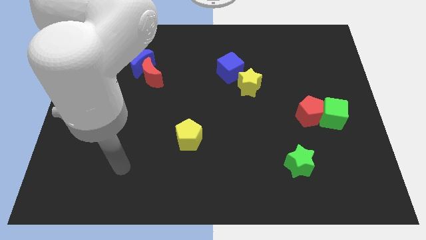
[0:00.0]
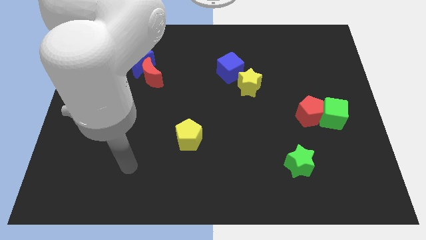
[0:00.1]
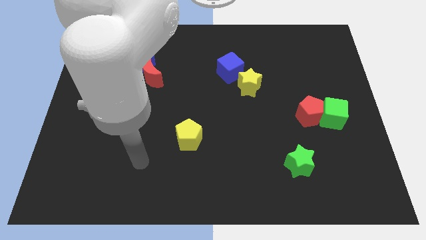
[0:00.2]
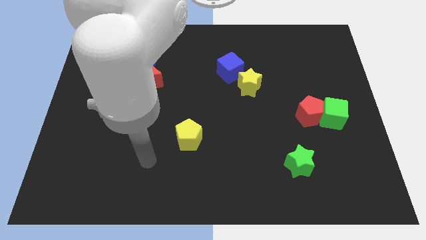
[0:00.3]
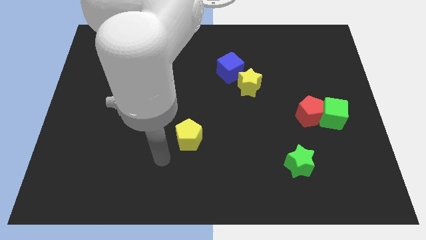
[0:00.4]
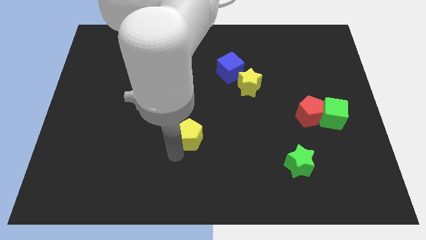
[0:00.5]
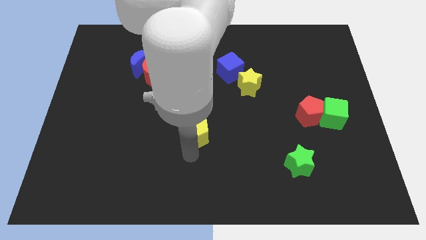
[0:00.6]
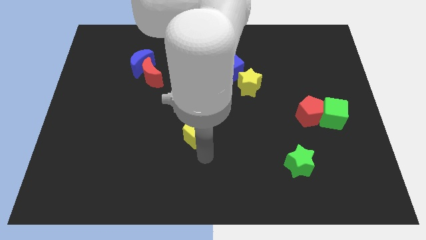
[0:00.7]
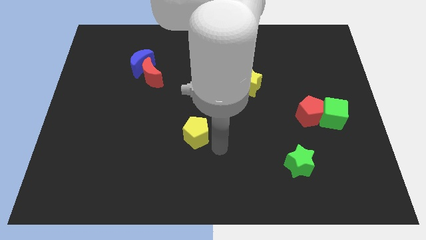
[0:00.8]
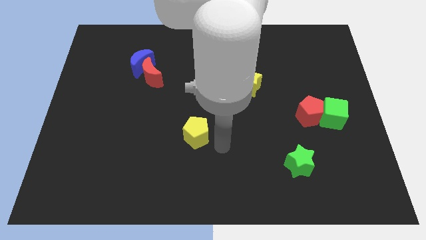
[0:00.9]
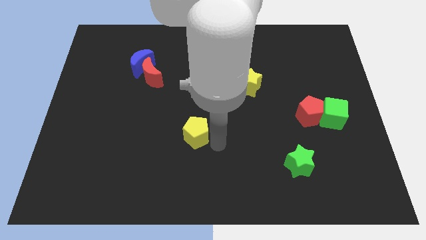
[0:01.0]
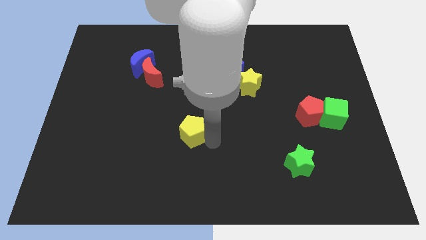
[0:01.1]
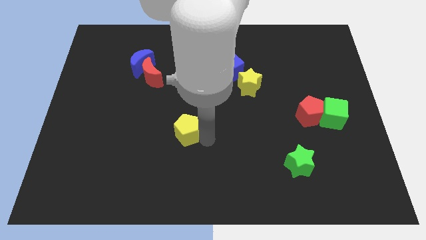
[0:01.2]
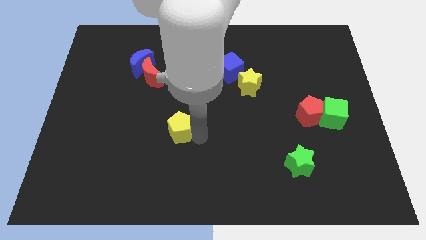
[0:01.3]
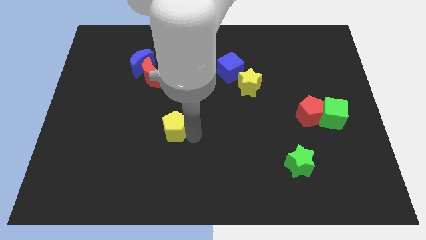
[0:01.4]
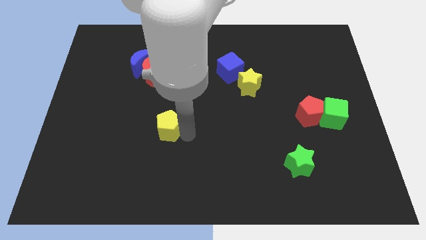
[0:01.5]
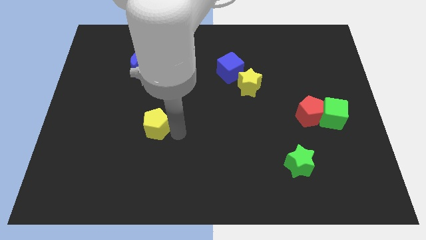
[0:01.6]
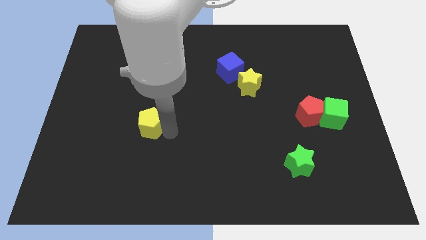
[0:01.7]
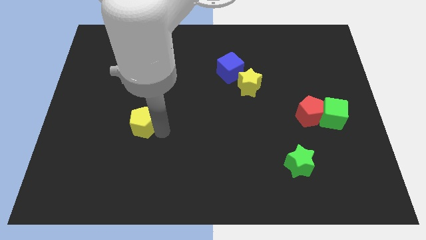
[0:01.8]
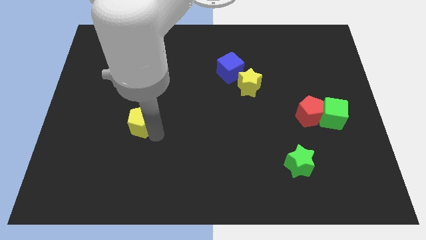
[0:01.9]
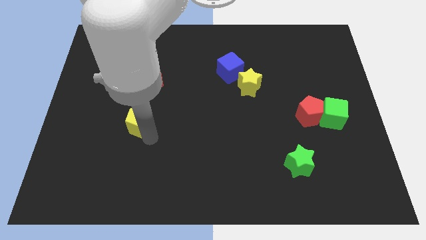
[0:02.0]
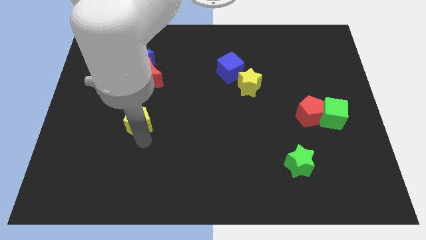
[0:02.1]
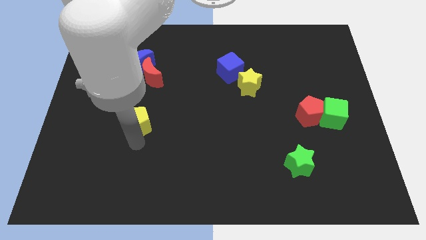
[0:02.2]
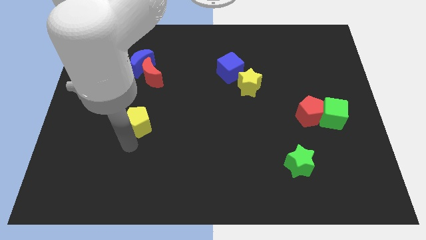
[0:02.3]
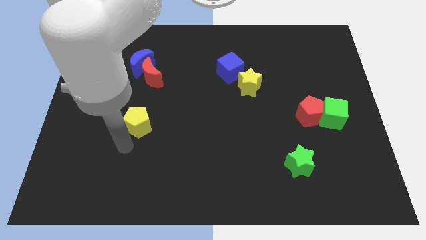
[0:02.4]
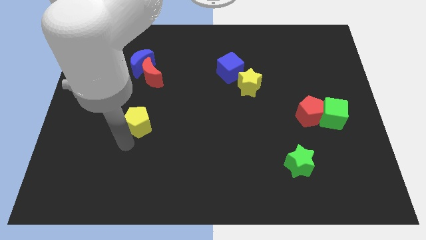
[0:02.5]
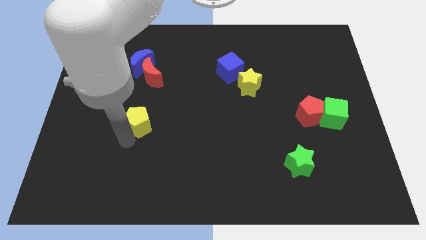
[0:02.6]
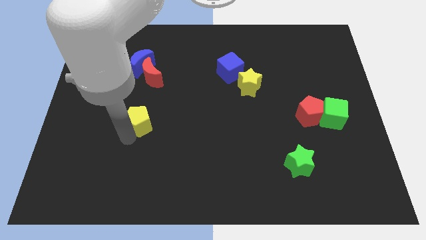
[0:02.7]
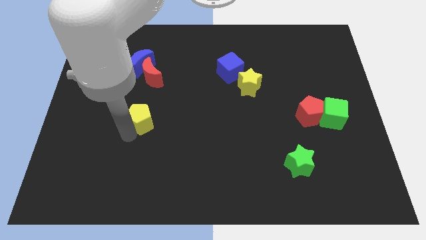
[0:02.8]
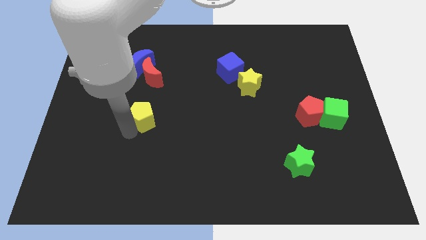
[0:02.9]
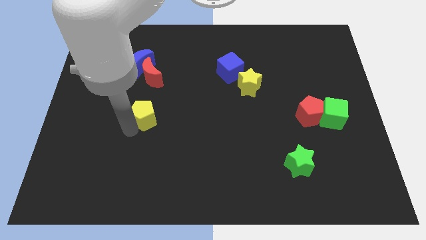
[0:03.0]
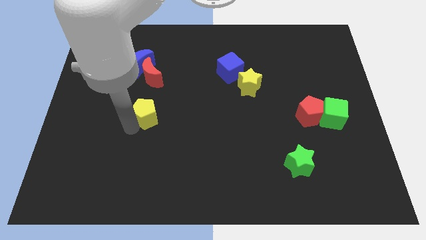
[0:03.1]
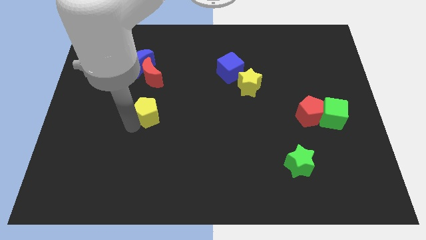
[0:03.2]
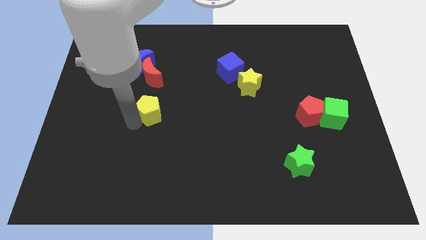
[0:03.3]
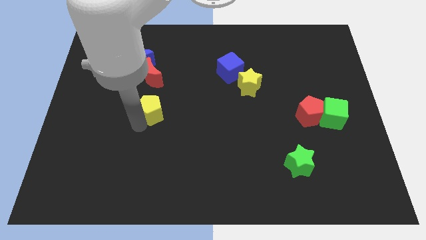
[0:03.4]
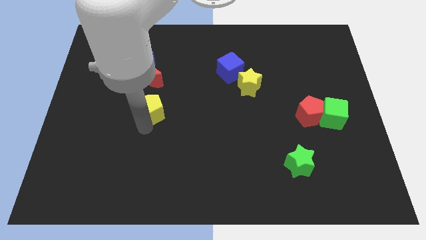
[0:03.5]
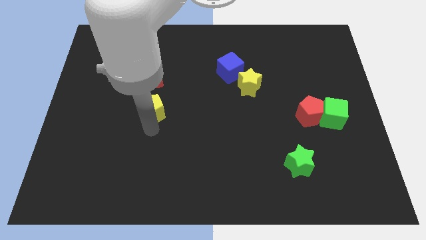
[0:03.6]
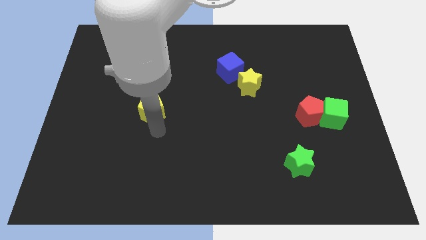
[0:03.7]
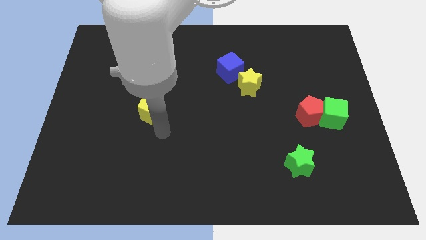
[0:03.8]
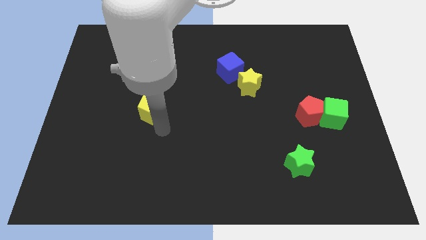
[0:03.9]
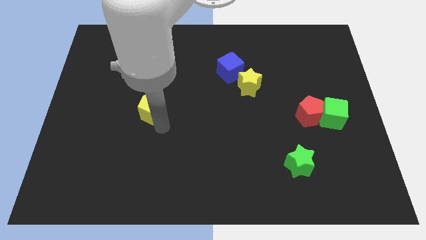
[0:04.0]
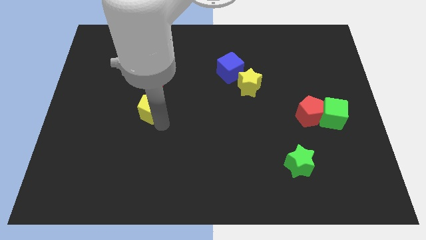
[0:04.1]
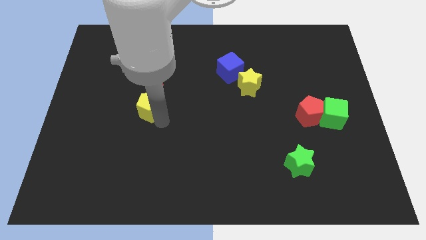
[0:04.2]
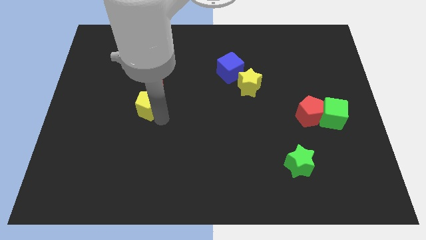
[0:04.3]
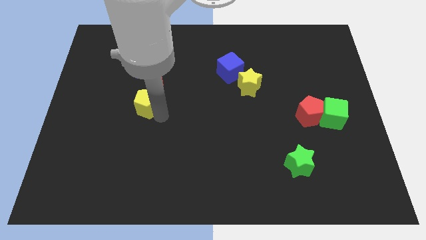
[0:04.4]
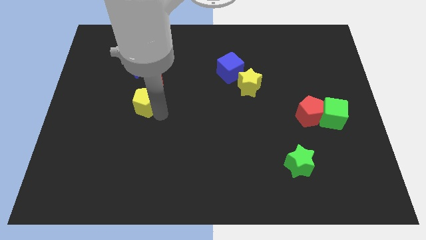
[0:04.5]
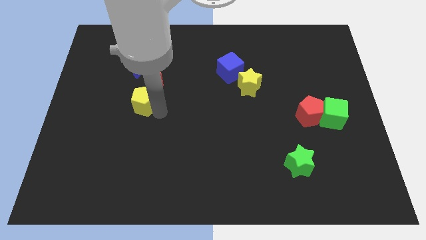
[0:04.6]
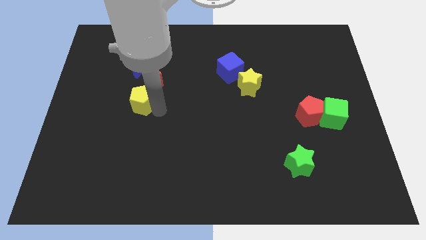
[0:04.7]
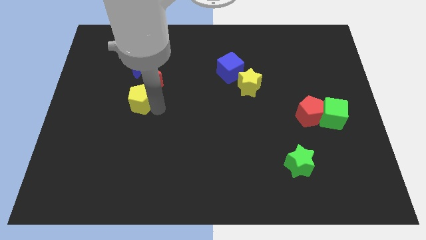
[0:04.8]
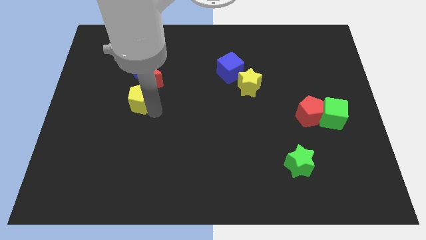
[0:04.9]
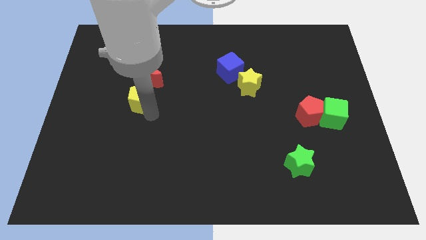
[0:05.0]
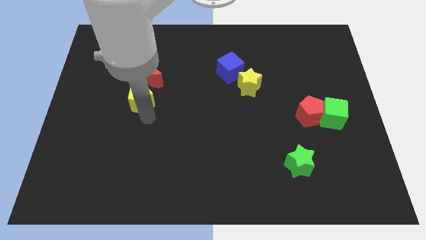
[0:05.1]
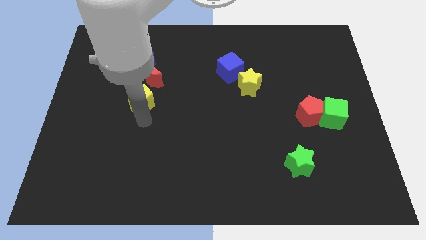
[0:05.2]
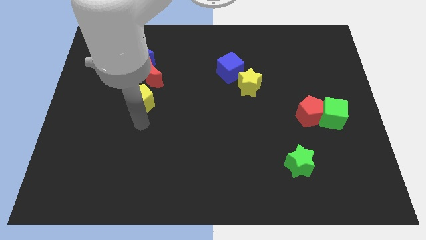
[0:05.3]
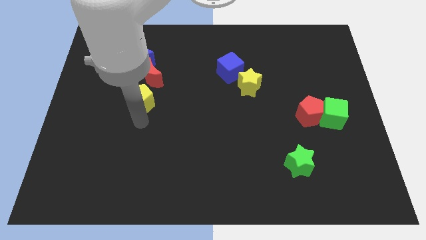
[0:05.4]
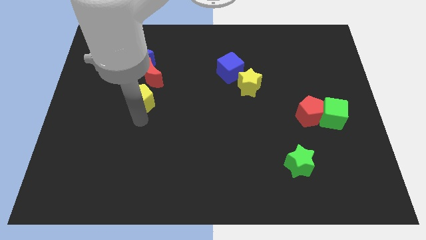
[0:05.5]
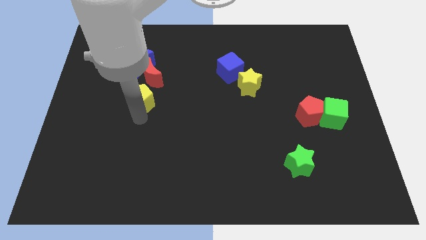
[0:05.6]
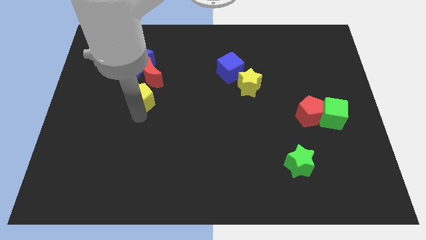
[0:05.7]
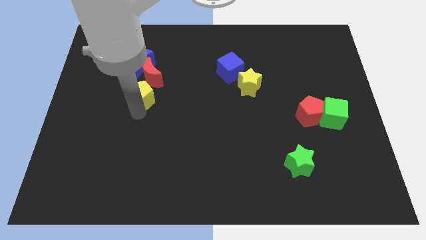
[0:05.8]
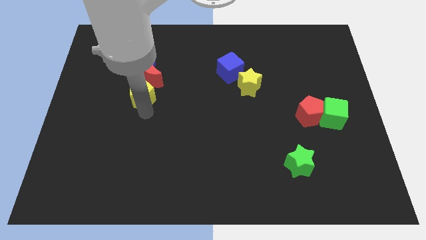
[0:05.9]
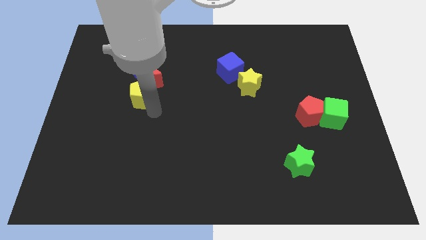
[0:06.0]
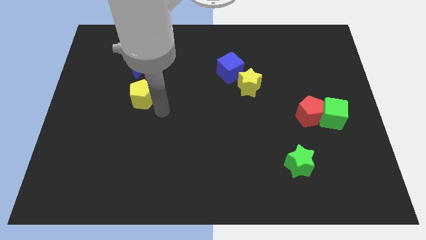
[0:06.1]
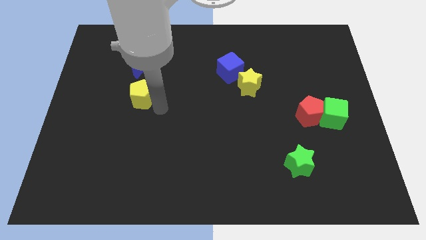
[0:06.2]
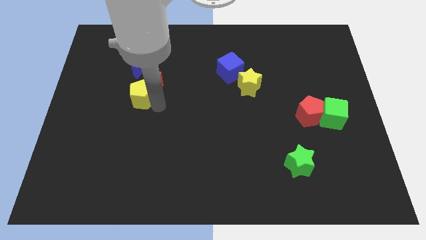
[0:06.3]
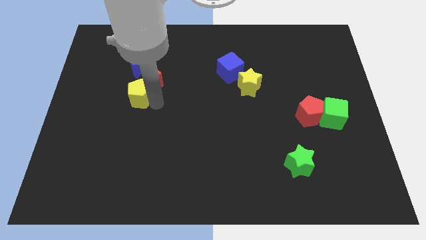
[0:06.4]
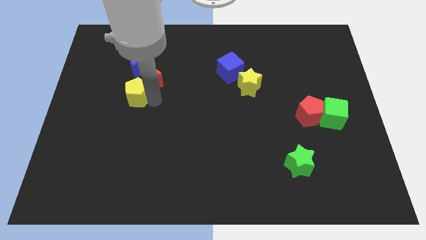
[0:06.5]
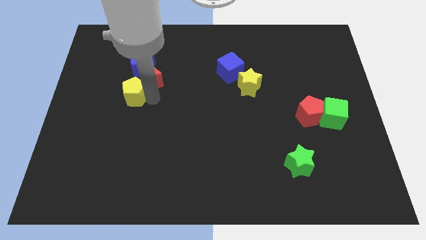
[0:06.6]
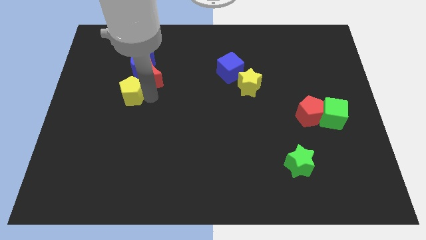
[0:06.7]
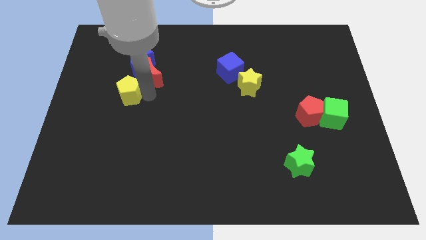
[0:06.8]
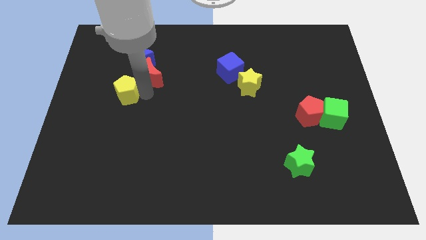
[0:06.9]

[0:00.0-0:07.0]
move the yellow pentagon diagonally down and to the left of the blue moon

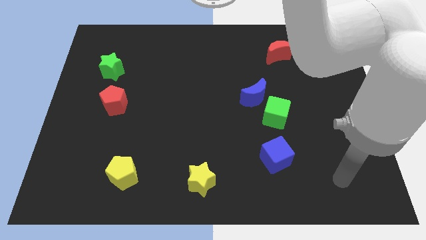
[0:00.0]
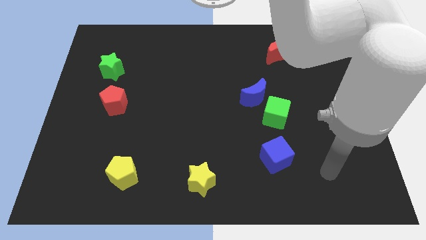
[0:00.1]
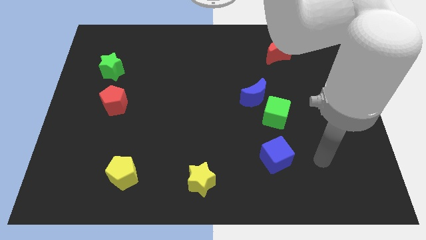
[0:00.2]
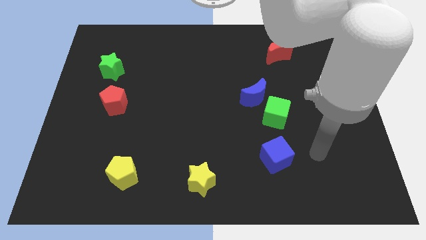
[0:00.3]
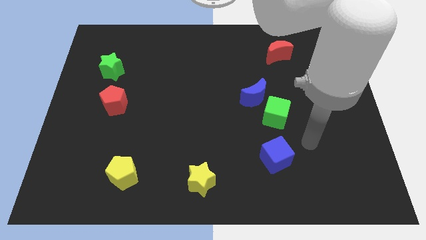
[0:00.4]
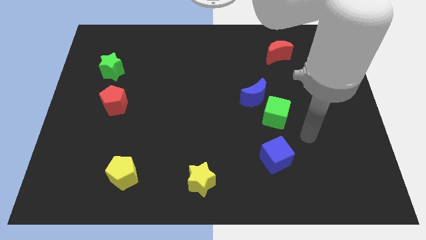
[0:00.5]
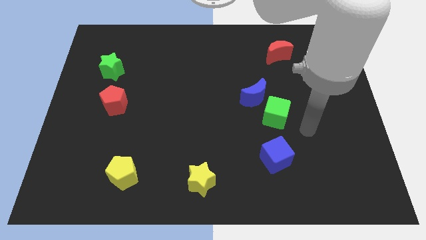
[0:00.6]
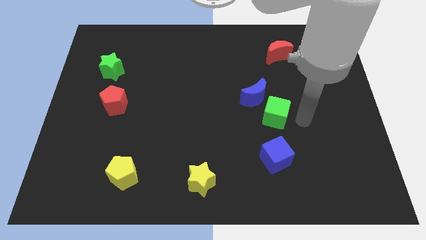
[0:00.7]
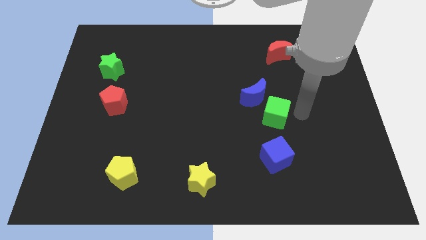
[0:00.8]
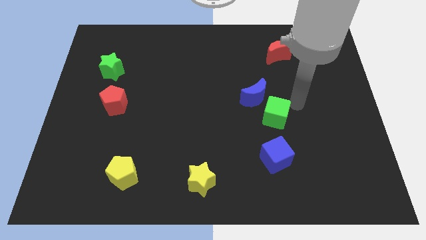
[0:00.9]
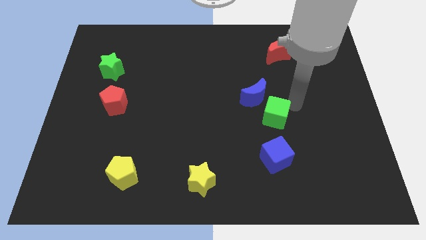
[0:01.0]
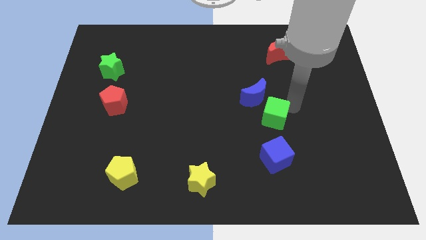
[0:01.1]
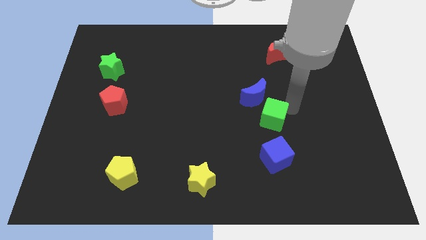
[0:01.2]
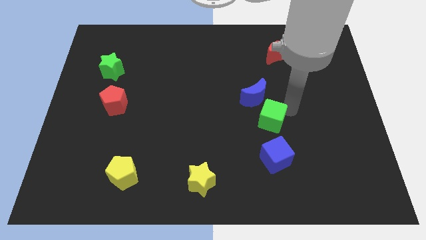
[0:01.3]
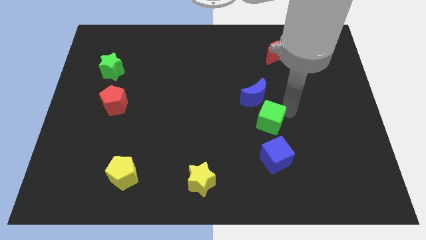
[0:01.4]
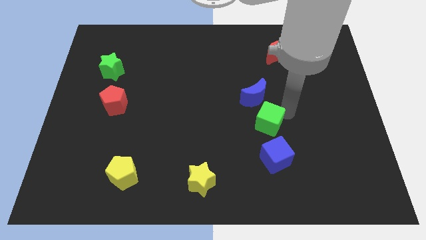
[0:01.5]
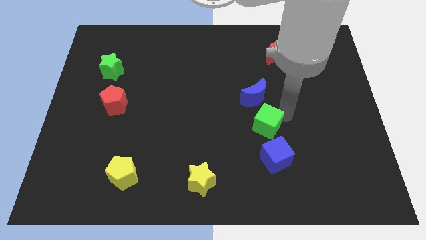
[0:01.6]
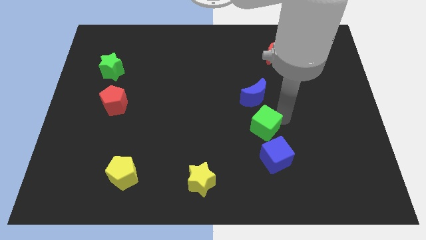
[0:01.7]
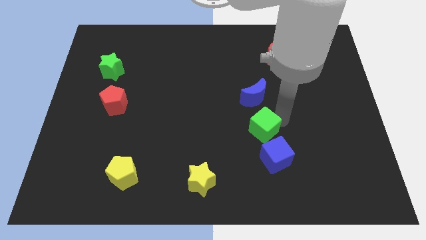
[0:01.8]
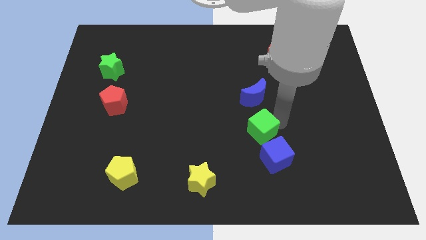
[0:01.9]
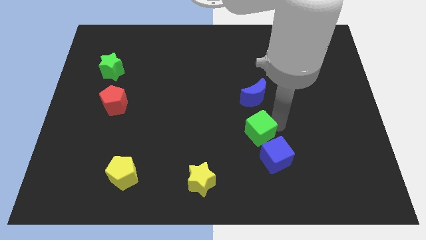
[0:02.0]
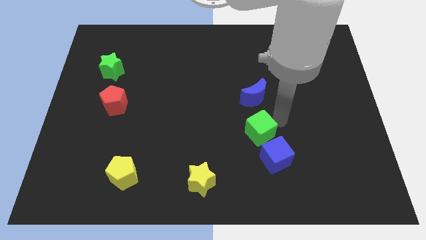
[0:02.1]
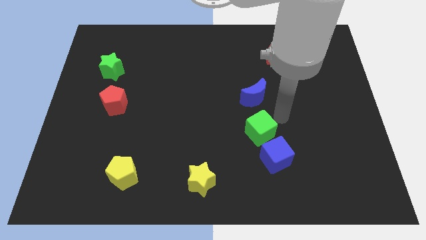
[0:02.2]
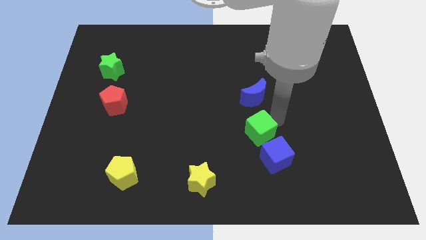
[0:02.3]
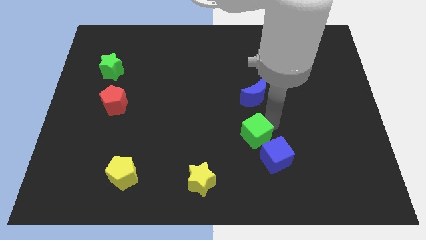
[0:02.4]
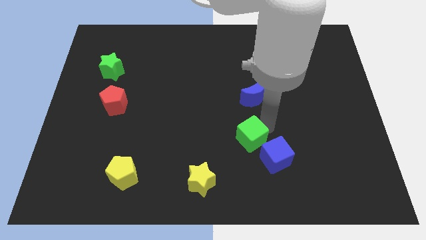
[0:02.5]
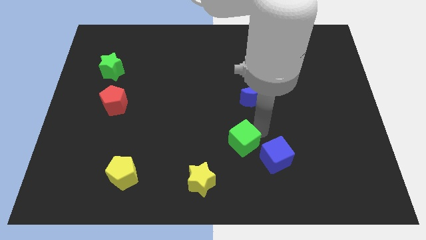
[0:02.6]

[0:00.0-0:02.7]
slide the green cube to the left of the blue cube
